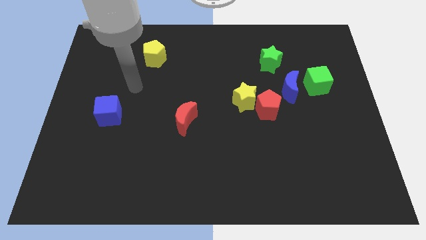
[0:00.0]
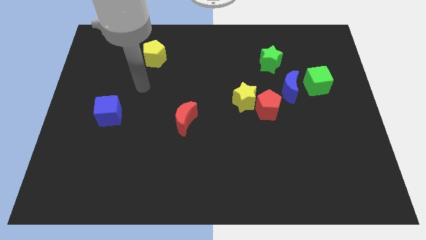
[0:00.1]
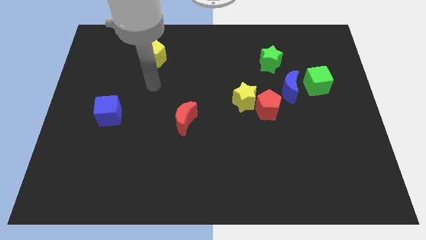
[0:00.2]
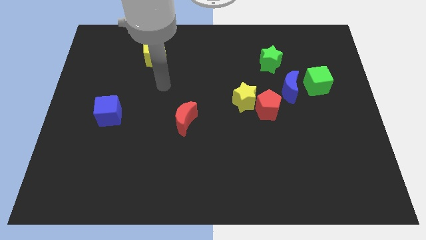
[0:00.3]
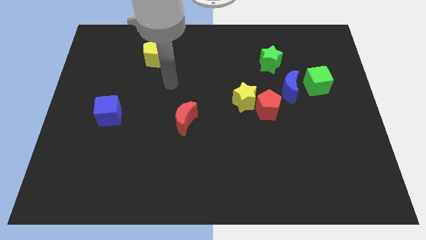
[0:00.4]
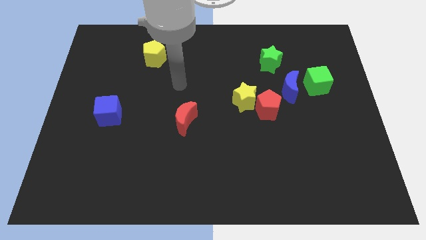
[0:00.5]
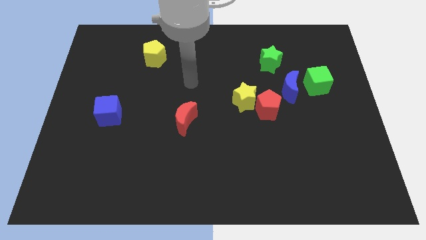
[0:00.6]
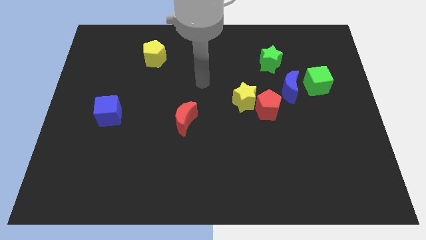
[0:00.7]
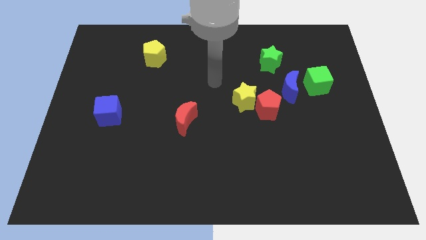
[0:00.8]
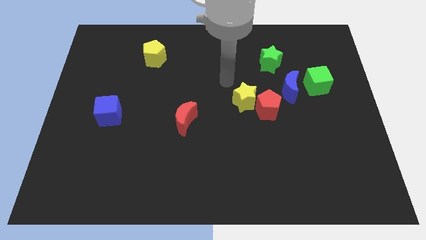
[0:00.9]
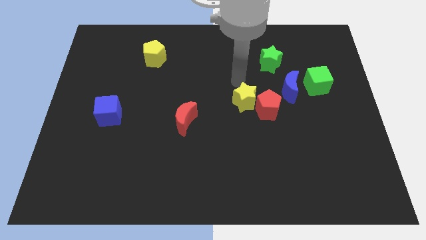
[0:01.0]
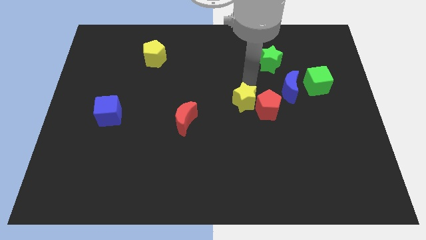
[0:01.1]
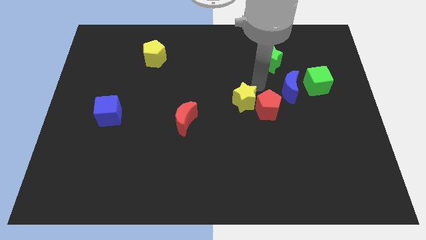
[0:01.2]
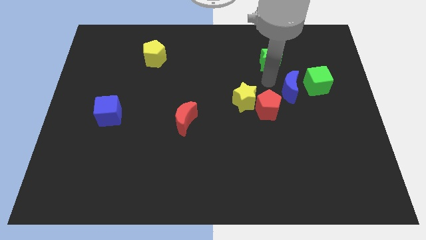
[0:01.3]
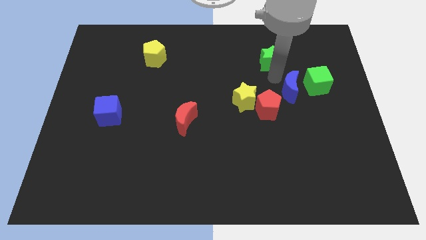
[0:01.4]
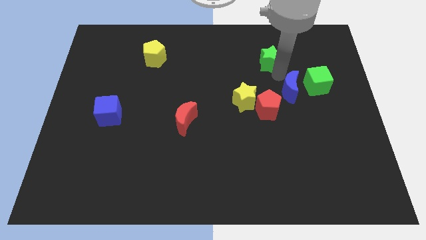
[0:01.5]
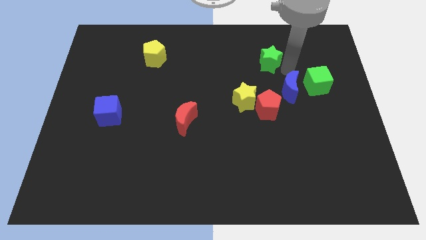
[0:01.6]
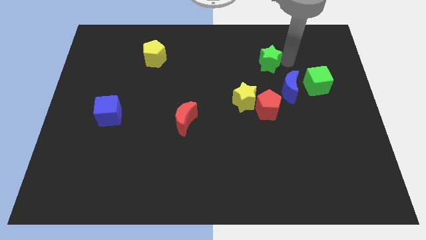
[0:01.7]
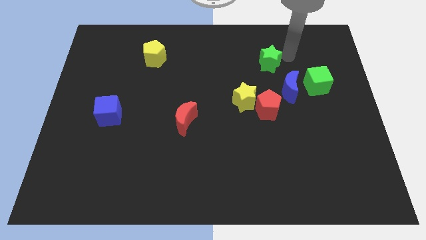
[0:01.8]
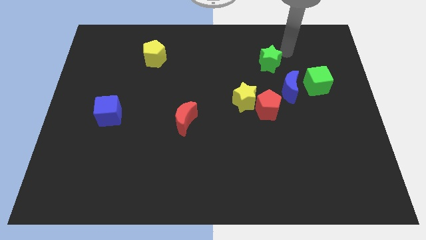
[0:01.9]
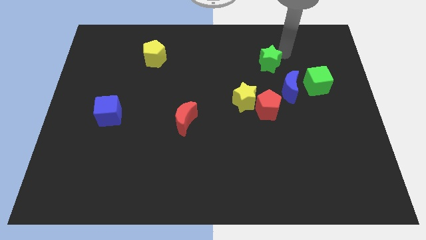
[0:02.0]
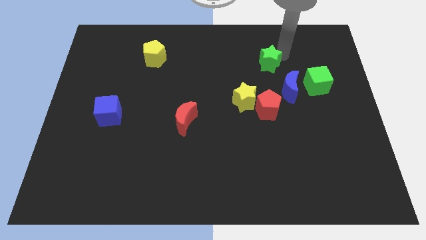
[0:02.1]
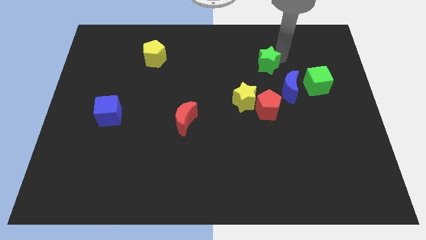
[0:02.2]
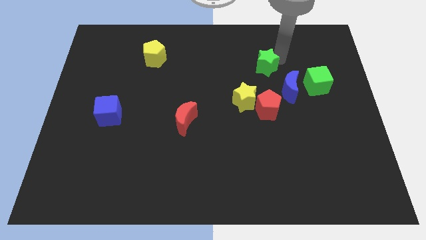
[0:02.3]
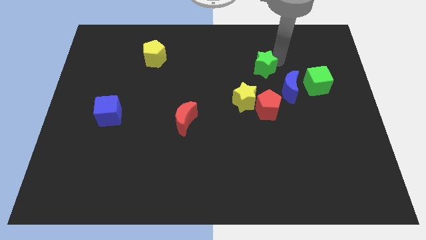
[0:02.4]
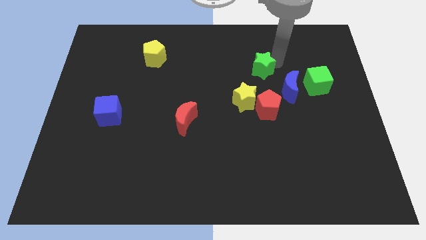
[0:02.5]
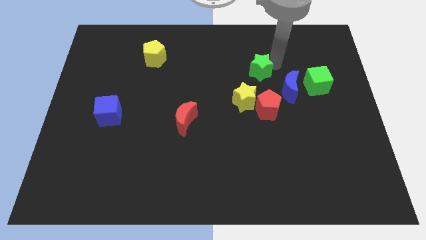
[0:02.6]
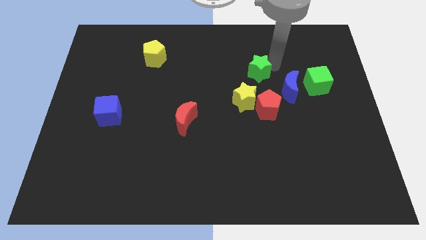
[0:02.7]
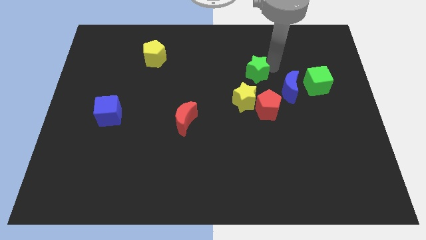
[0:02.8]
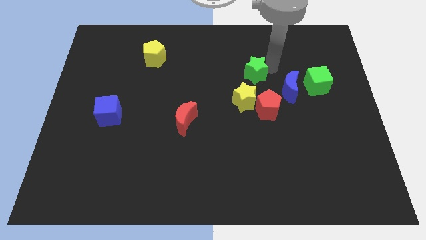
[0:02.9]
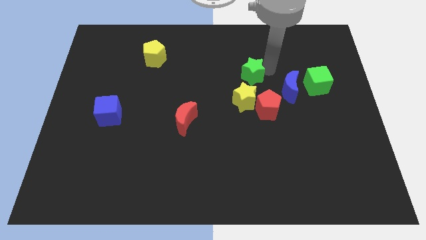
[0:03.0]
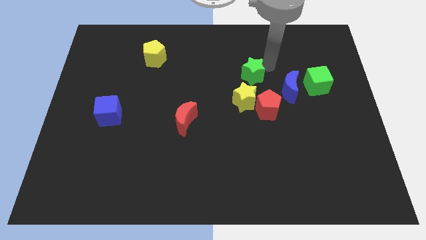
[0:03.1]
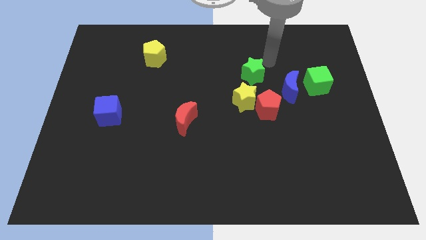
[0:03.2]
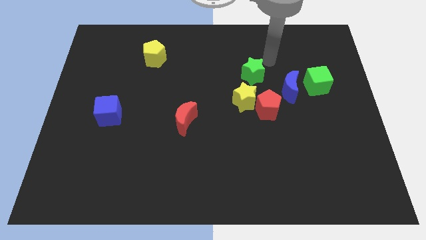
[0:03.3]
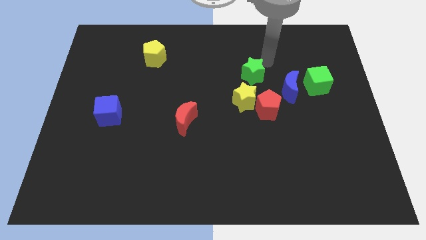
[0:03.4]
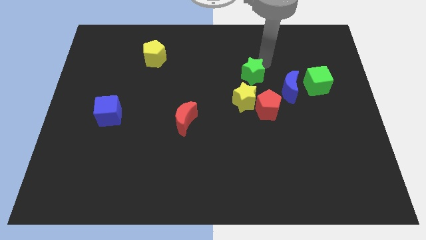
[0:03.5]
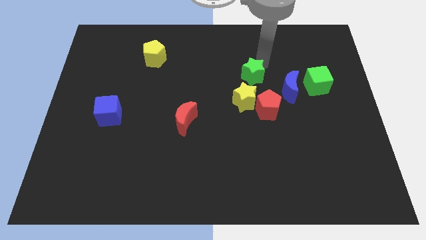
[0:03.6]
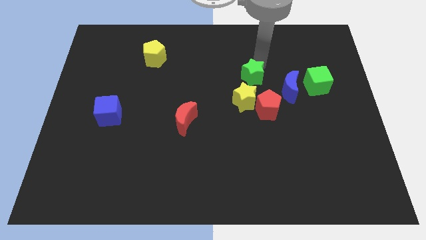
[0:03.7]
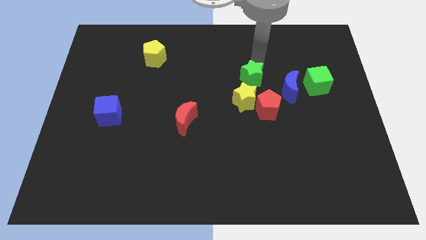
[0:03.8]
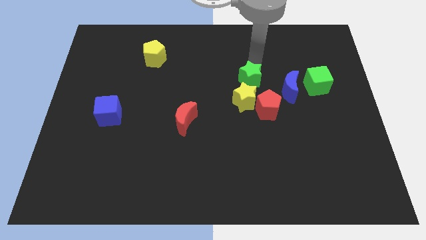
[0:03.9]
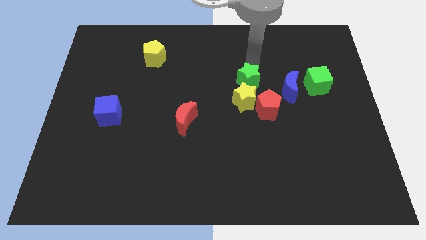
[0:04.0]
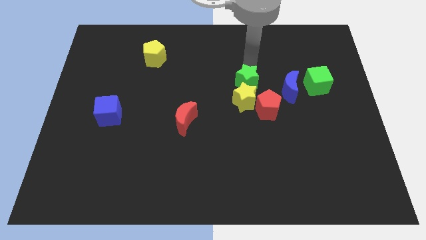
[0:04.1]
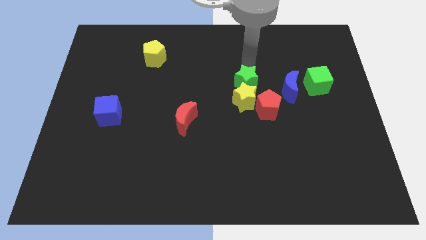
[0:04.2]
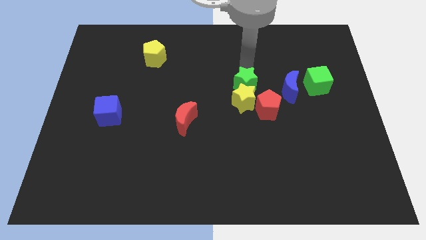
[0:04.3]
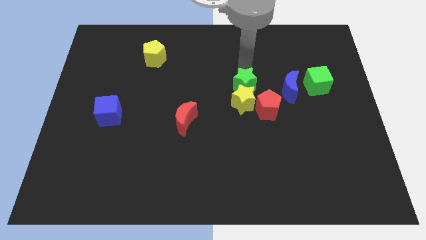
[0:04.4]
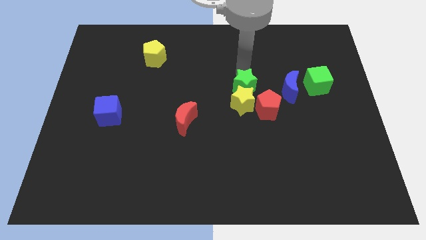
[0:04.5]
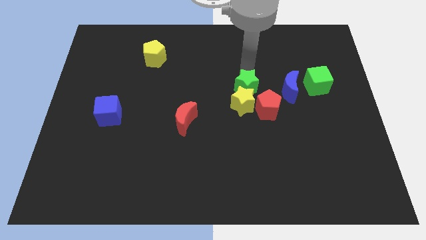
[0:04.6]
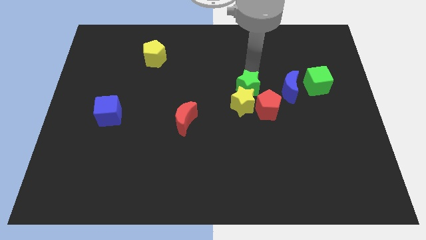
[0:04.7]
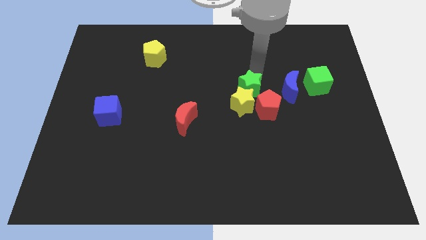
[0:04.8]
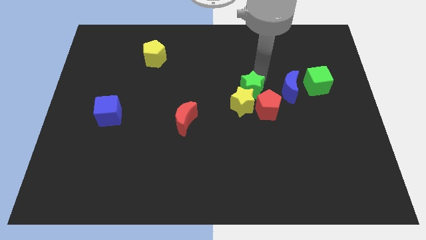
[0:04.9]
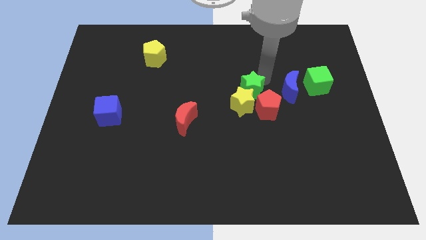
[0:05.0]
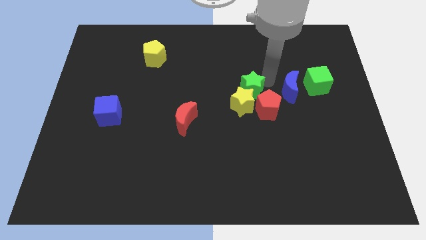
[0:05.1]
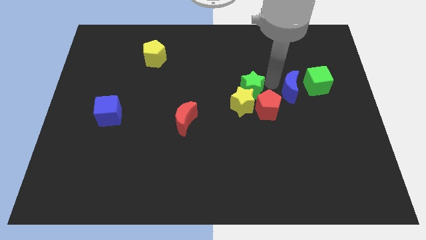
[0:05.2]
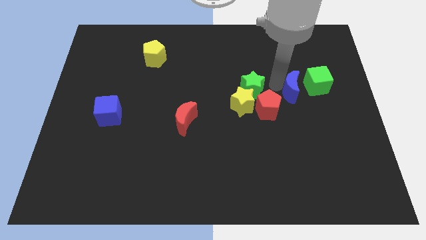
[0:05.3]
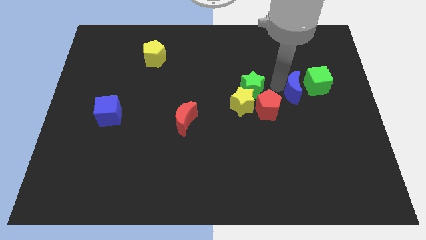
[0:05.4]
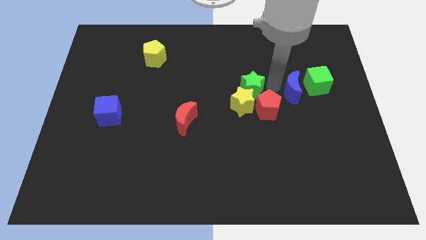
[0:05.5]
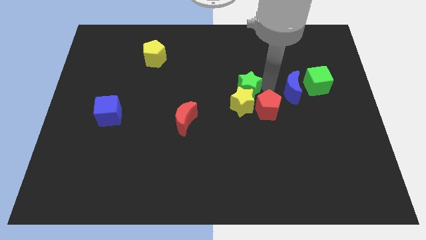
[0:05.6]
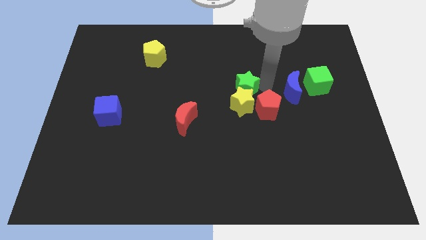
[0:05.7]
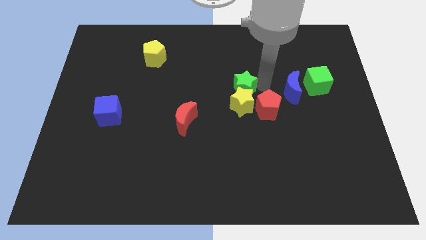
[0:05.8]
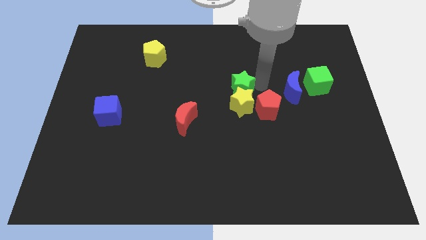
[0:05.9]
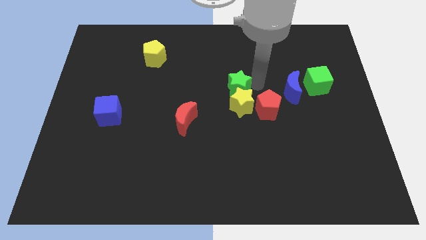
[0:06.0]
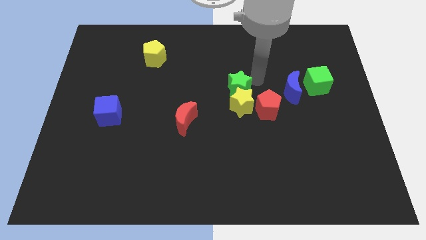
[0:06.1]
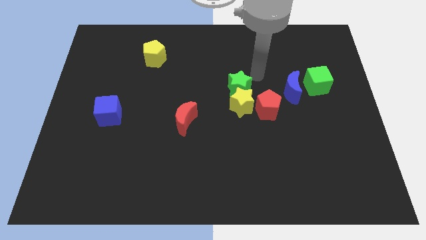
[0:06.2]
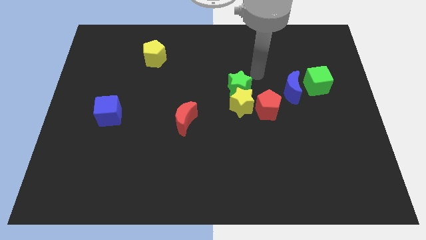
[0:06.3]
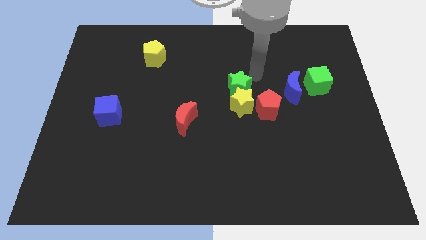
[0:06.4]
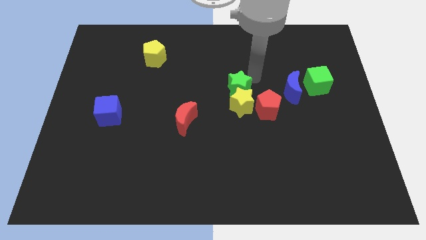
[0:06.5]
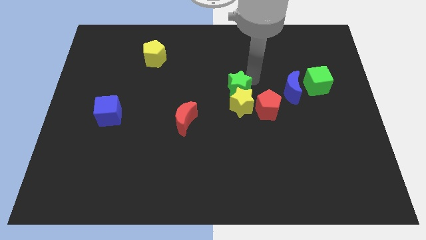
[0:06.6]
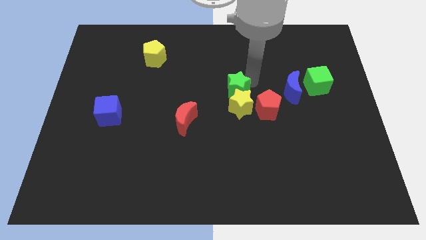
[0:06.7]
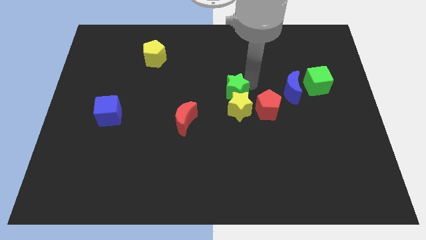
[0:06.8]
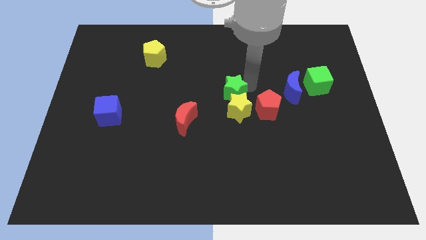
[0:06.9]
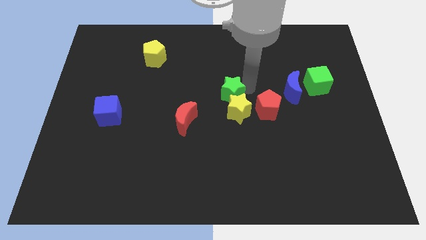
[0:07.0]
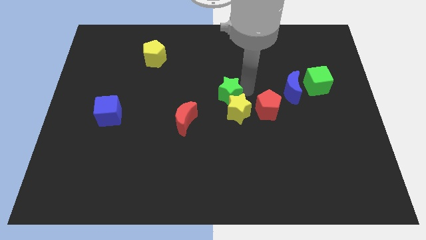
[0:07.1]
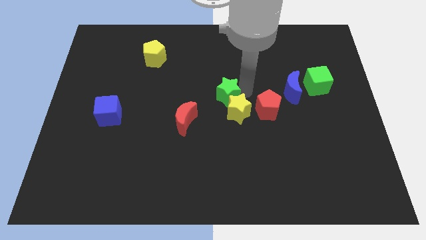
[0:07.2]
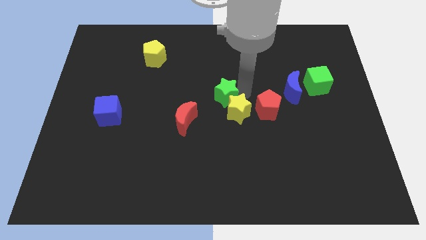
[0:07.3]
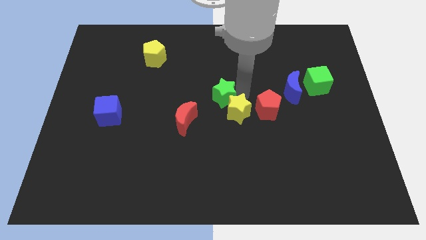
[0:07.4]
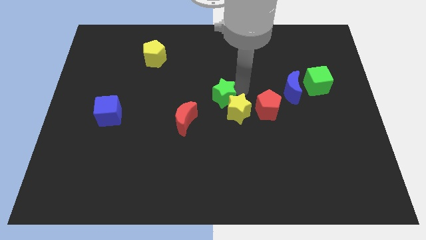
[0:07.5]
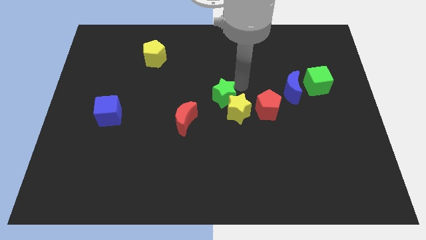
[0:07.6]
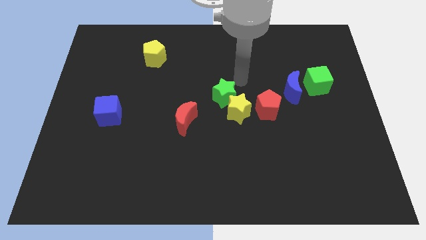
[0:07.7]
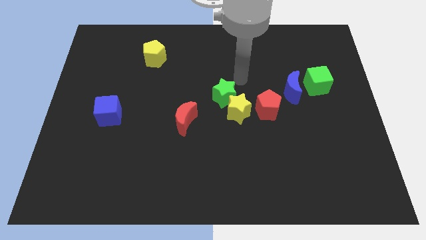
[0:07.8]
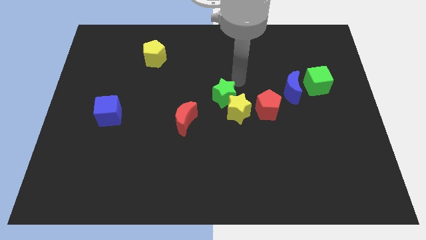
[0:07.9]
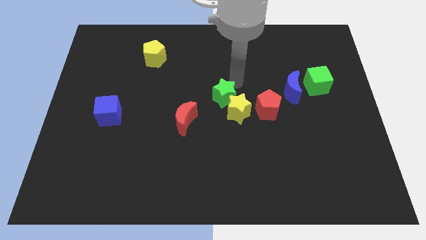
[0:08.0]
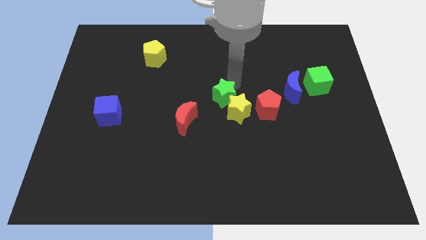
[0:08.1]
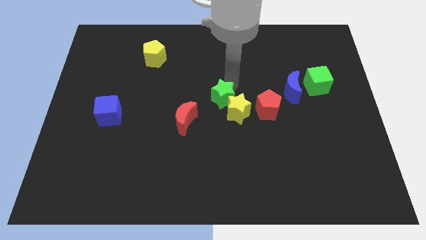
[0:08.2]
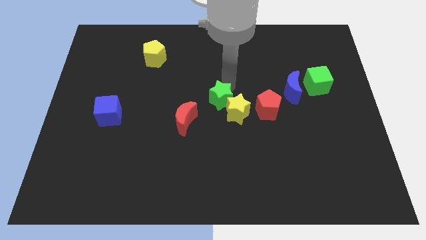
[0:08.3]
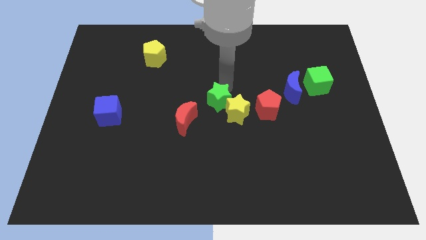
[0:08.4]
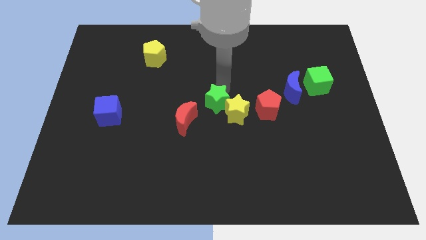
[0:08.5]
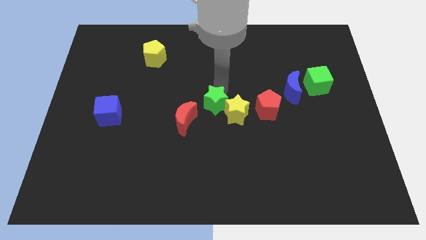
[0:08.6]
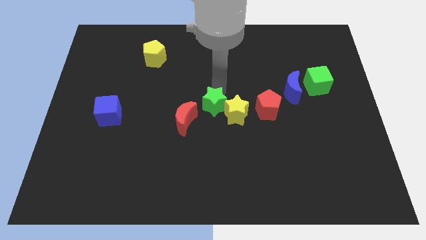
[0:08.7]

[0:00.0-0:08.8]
slide the green star down and to the left
